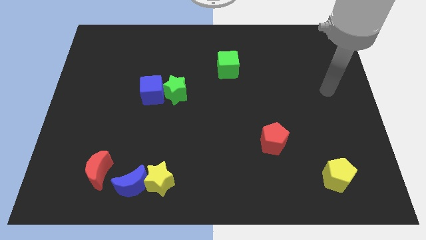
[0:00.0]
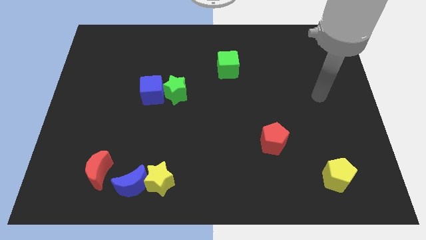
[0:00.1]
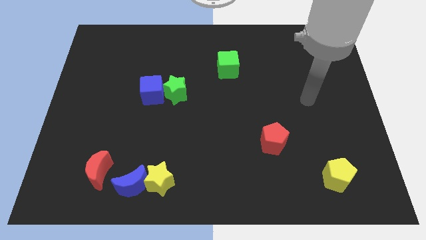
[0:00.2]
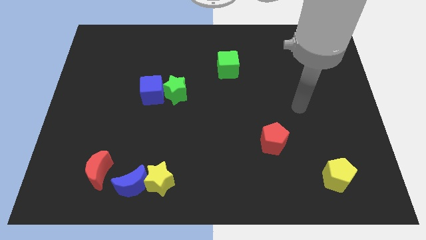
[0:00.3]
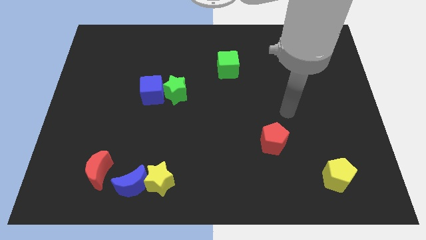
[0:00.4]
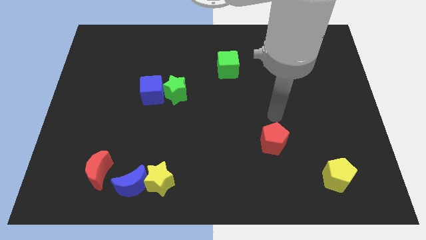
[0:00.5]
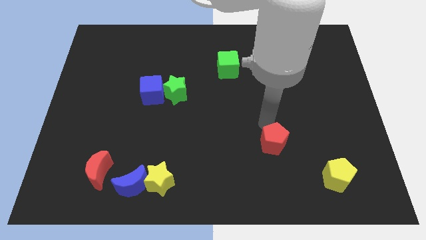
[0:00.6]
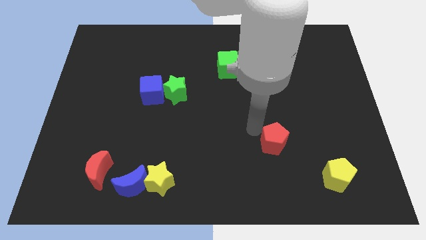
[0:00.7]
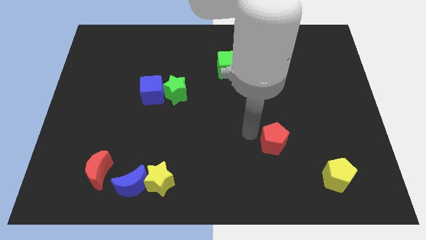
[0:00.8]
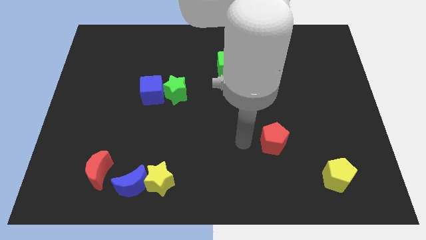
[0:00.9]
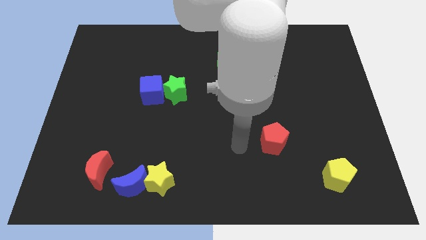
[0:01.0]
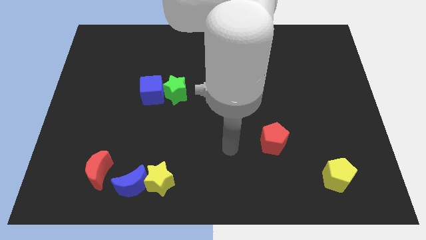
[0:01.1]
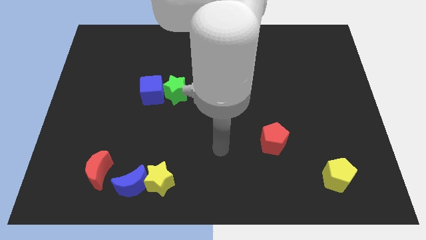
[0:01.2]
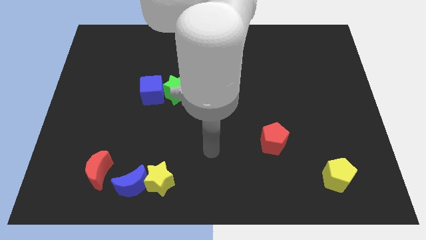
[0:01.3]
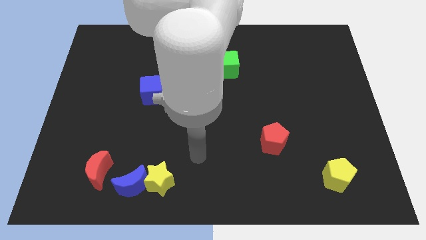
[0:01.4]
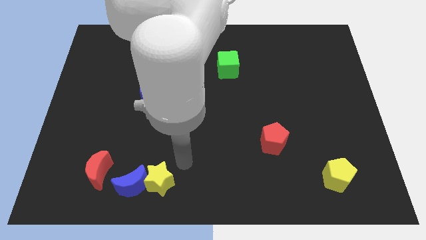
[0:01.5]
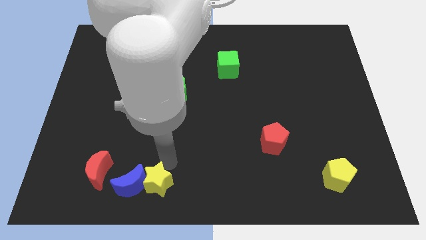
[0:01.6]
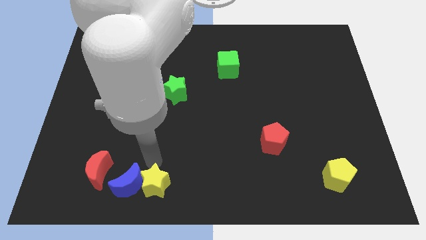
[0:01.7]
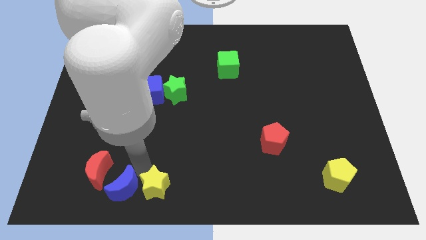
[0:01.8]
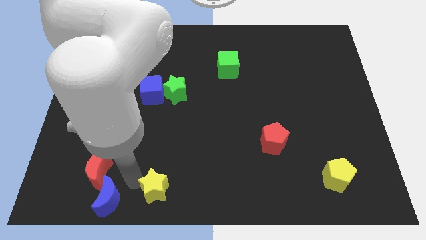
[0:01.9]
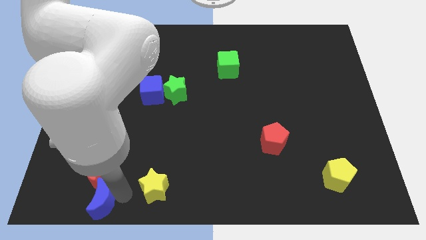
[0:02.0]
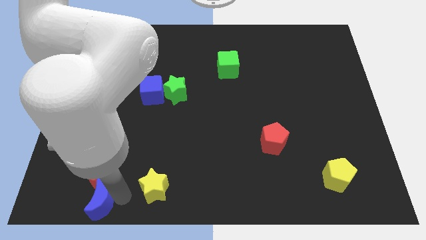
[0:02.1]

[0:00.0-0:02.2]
separate the yellow star from the blue moon

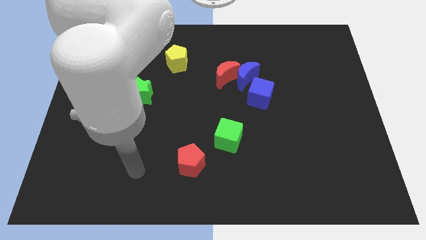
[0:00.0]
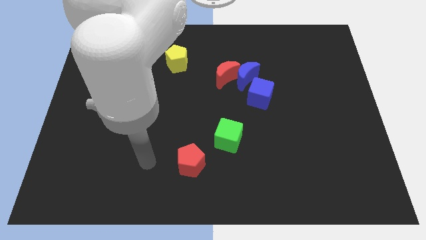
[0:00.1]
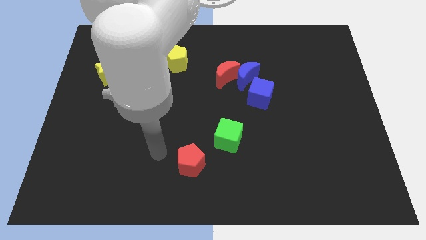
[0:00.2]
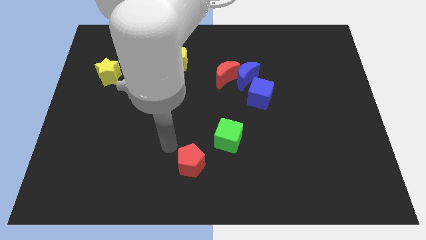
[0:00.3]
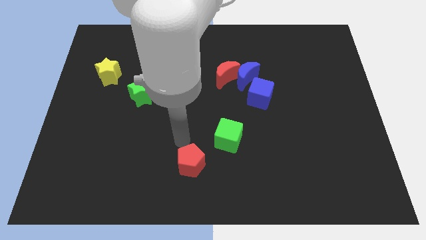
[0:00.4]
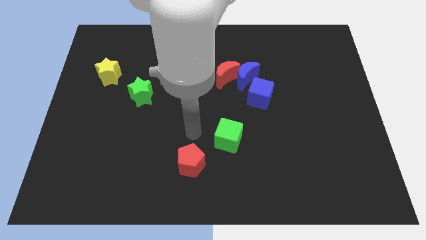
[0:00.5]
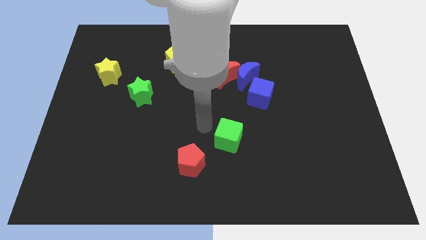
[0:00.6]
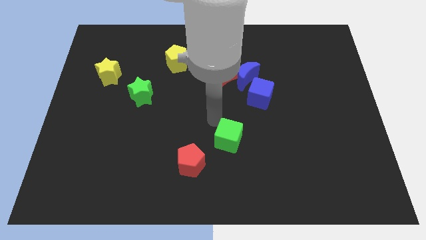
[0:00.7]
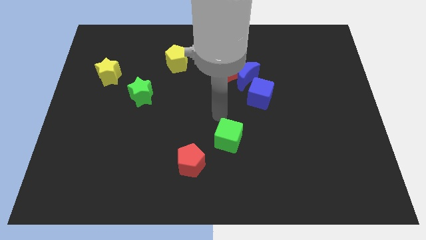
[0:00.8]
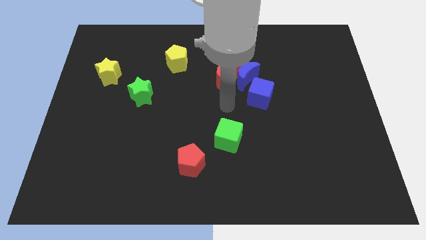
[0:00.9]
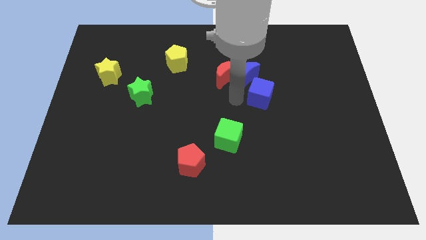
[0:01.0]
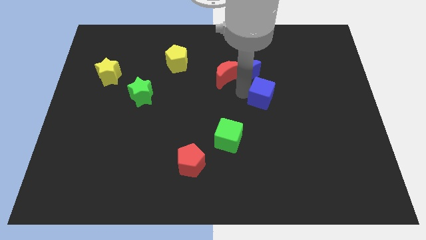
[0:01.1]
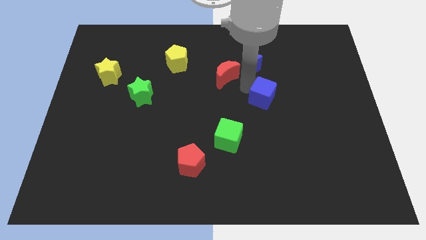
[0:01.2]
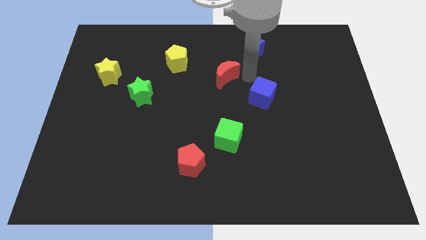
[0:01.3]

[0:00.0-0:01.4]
pull the red moon apart from the blue moon

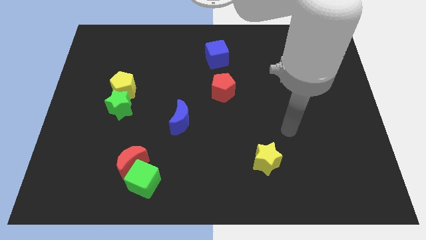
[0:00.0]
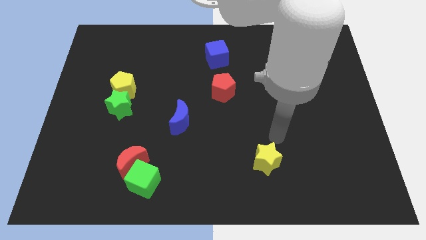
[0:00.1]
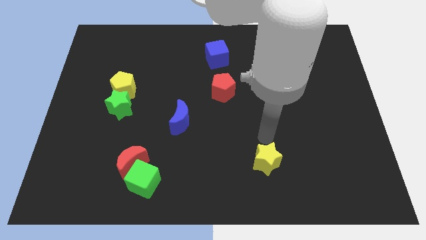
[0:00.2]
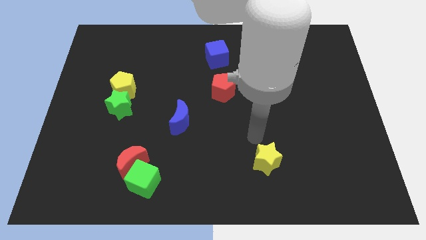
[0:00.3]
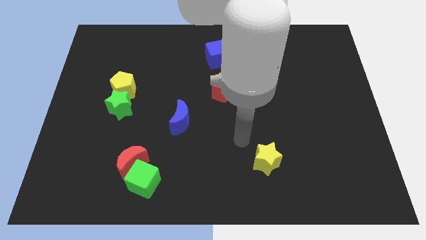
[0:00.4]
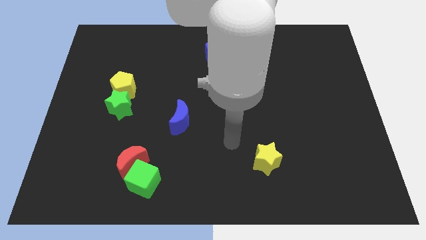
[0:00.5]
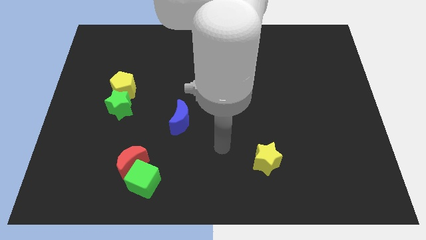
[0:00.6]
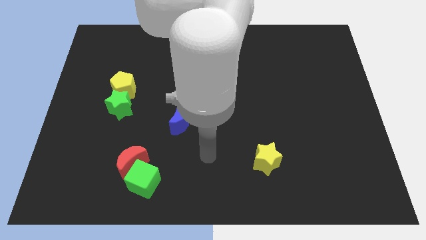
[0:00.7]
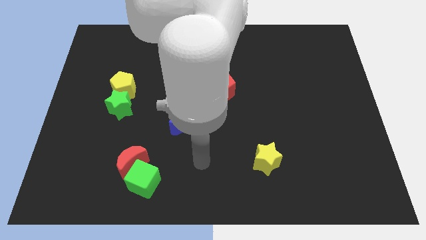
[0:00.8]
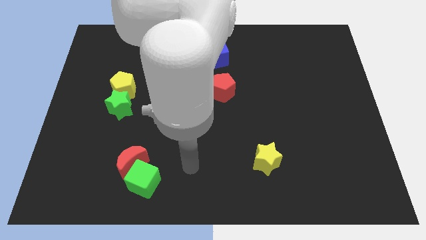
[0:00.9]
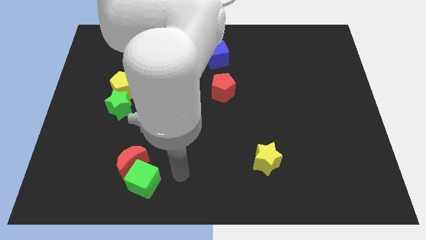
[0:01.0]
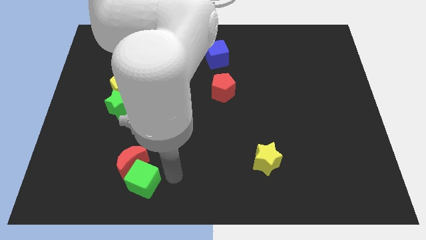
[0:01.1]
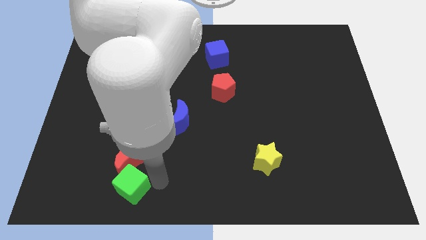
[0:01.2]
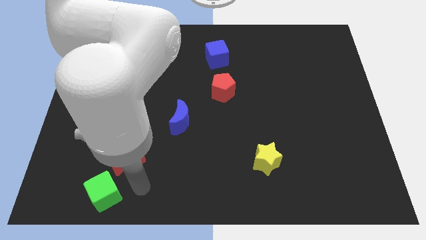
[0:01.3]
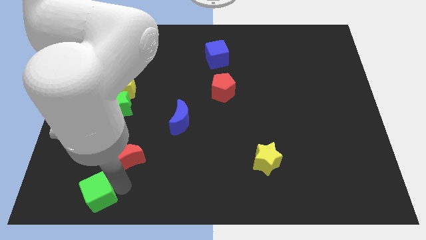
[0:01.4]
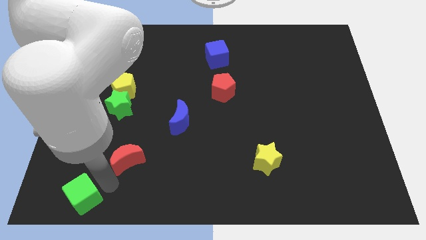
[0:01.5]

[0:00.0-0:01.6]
pull the red moon apart from the green cube

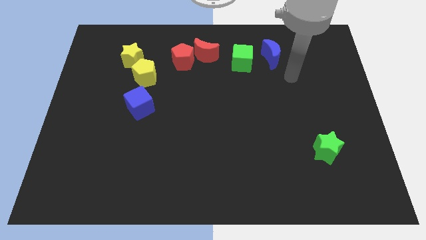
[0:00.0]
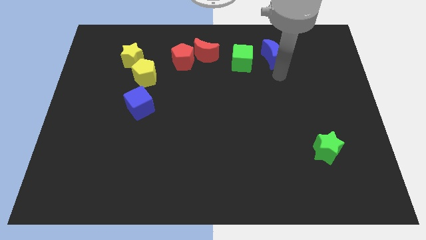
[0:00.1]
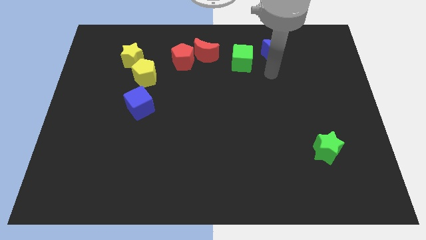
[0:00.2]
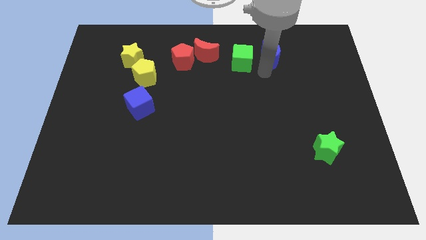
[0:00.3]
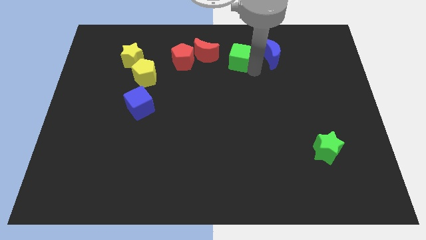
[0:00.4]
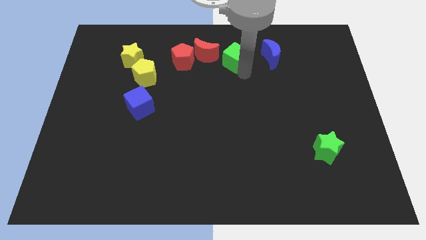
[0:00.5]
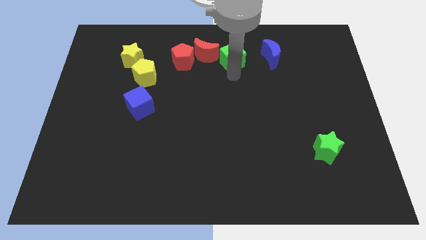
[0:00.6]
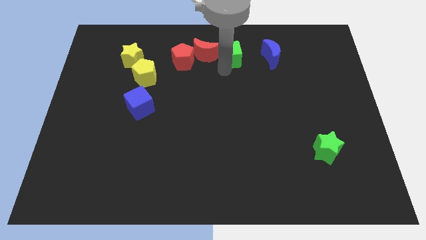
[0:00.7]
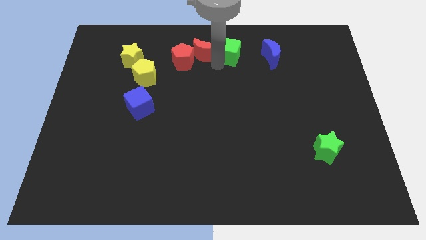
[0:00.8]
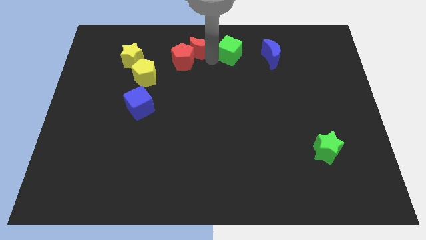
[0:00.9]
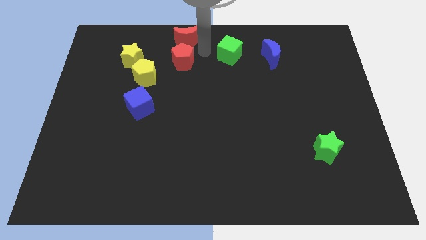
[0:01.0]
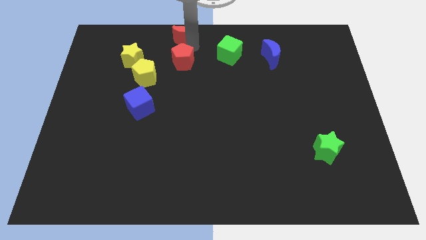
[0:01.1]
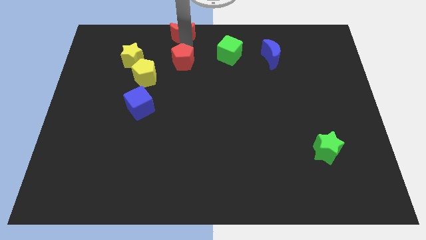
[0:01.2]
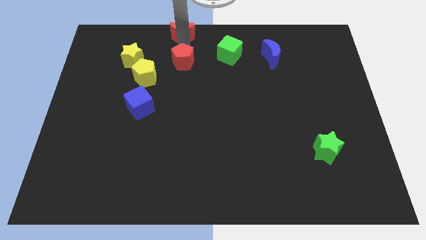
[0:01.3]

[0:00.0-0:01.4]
move the red pentagon away from the red moon

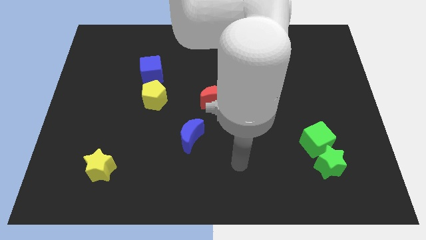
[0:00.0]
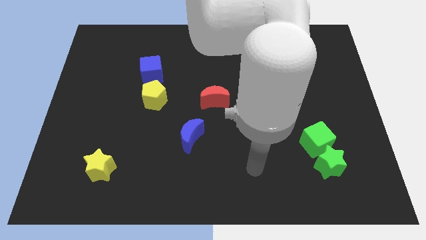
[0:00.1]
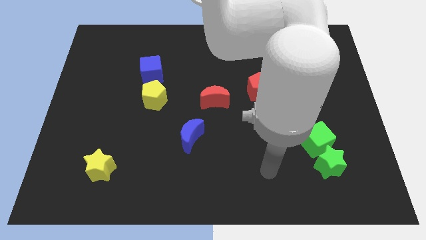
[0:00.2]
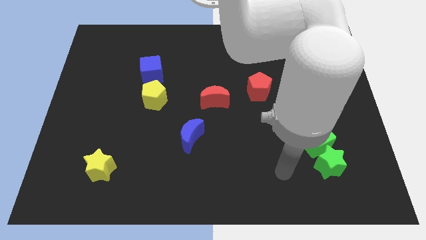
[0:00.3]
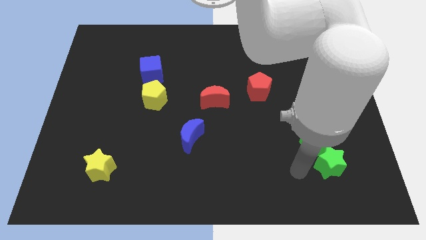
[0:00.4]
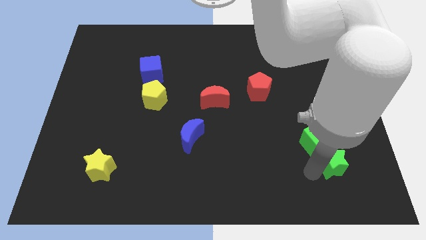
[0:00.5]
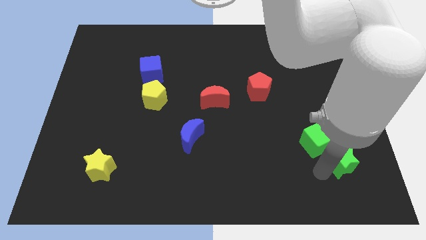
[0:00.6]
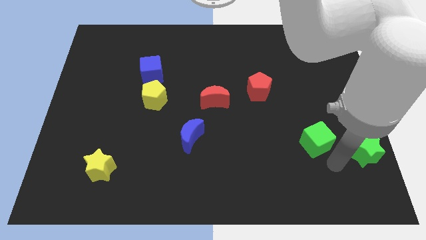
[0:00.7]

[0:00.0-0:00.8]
pull the green cube apart from the green star

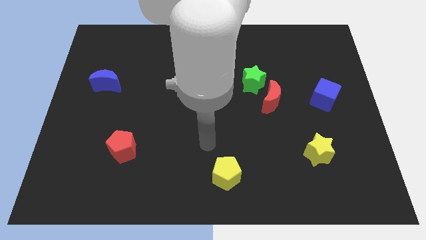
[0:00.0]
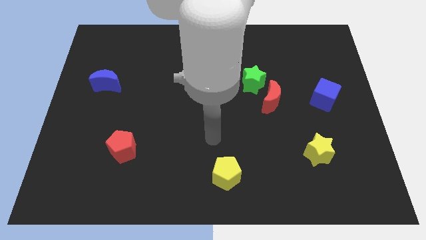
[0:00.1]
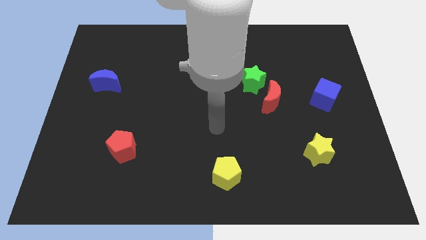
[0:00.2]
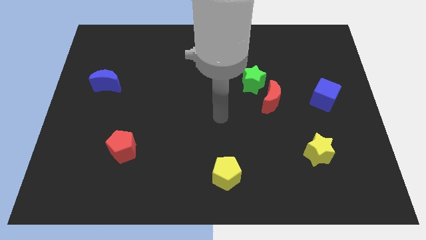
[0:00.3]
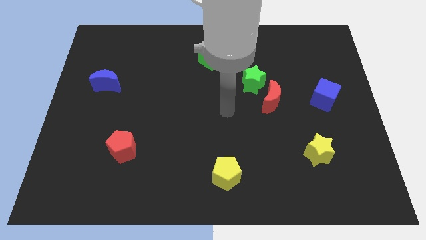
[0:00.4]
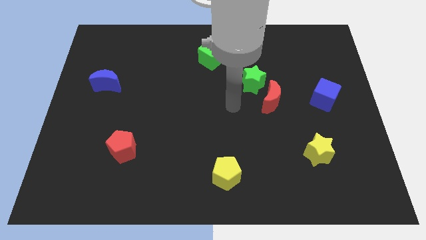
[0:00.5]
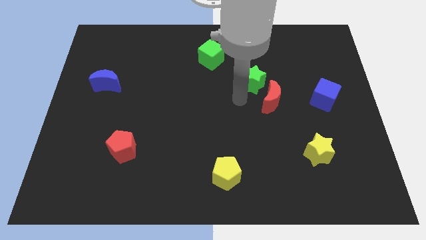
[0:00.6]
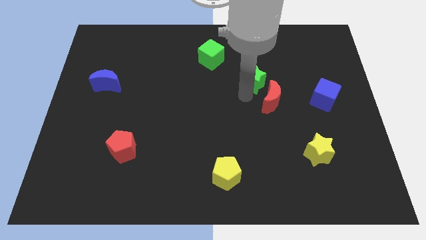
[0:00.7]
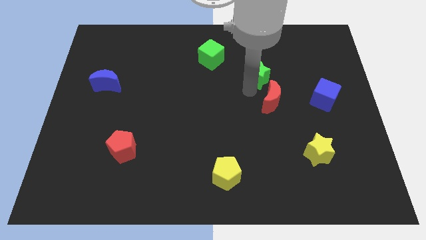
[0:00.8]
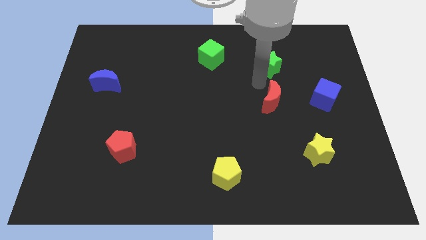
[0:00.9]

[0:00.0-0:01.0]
separate the red moon from the green star

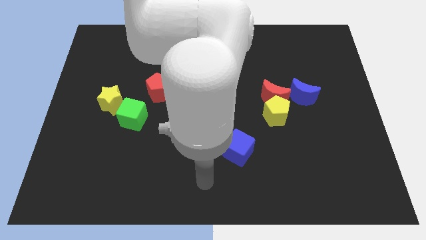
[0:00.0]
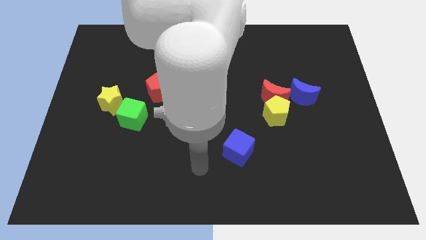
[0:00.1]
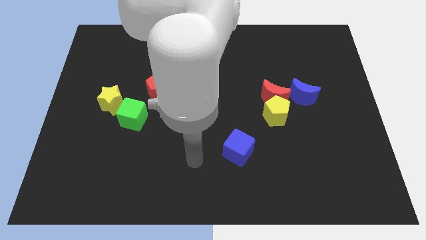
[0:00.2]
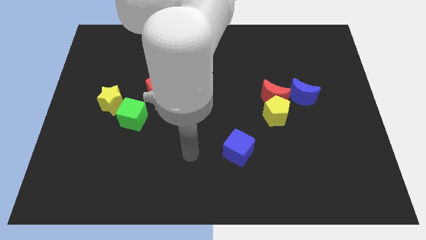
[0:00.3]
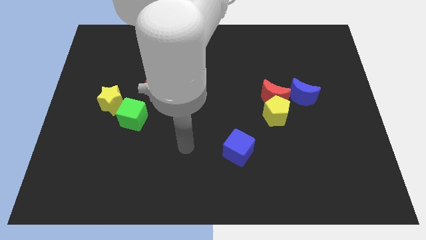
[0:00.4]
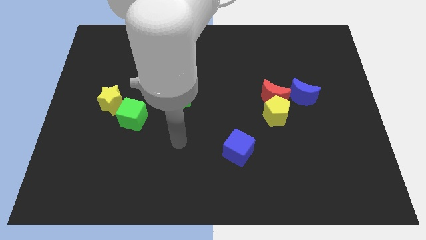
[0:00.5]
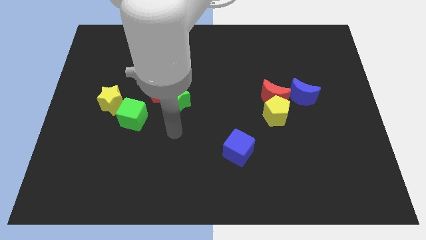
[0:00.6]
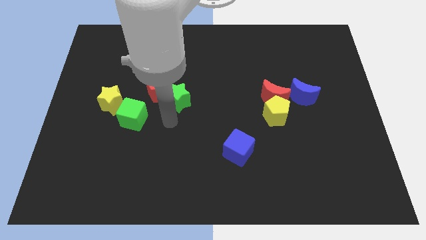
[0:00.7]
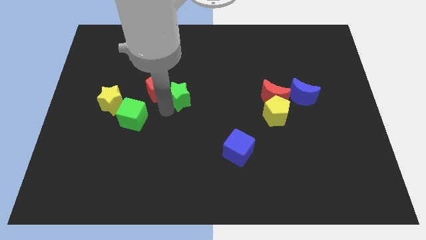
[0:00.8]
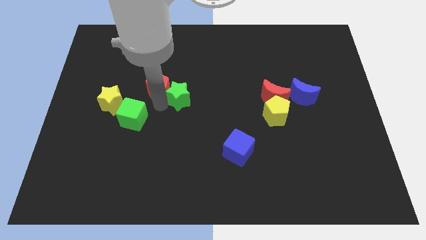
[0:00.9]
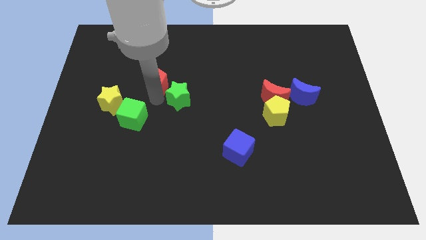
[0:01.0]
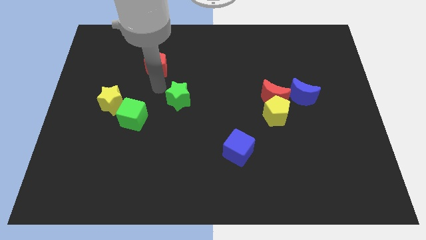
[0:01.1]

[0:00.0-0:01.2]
pull the green star apart from the red pentagon
